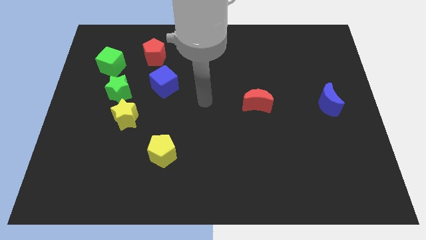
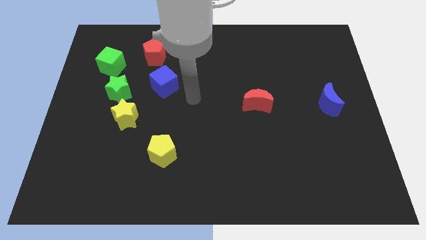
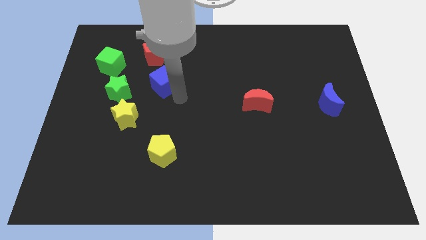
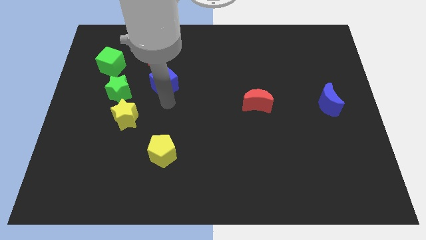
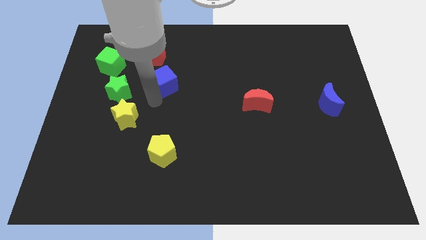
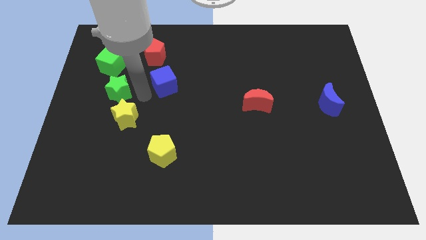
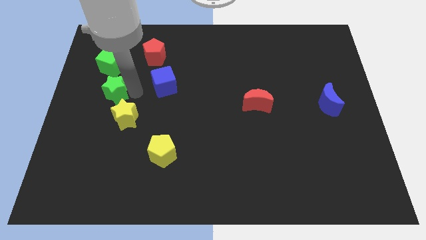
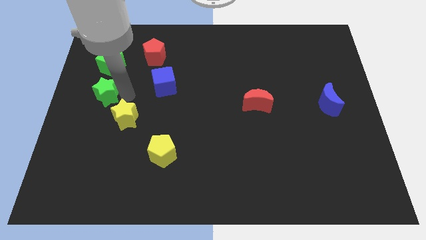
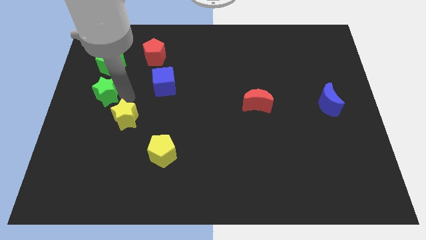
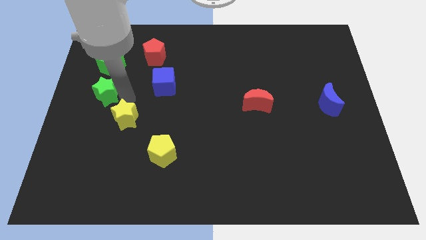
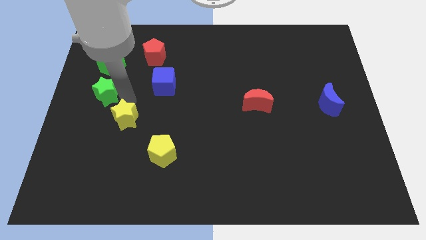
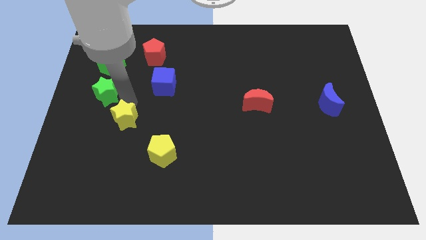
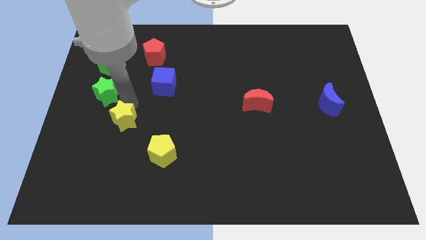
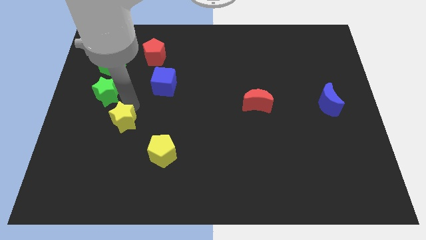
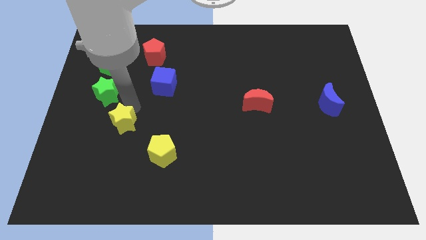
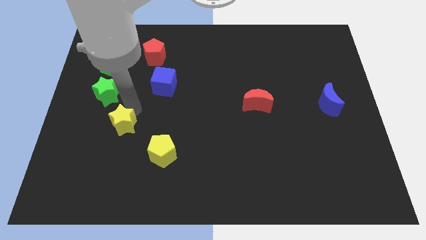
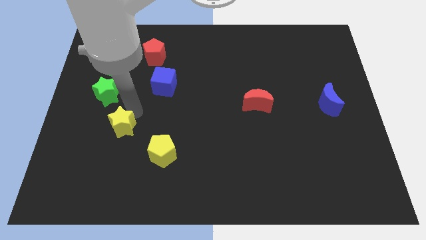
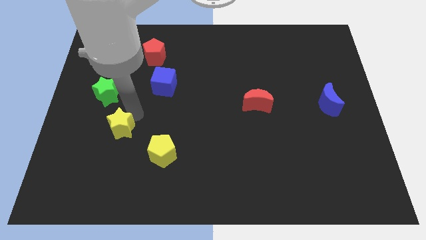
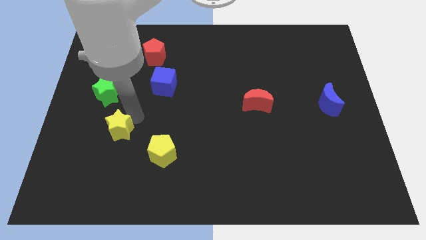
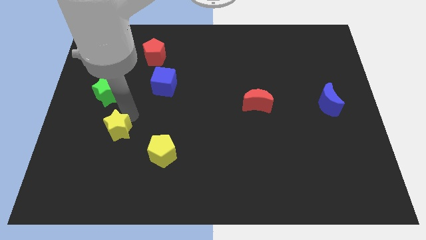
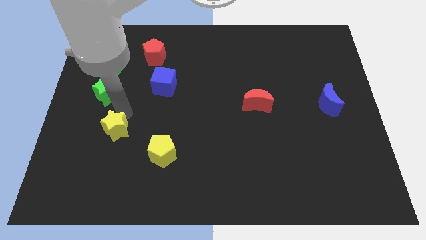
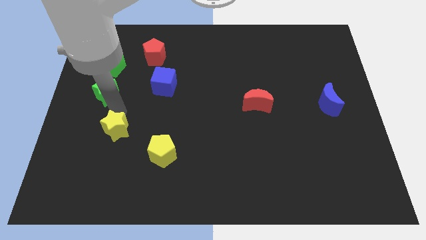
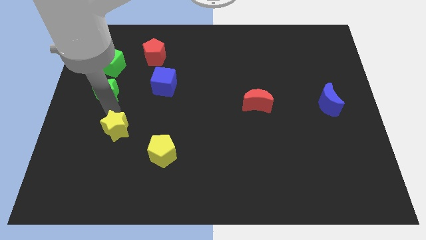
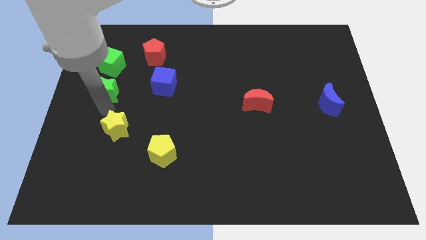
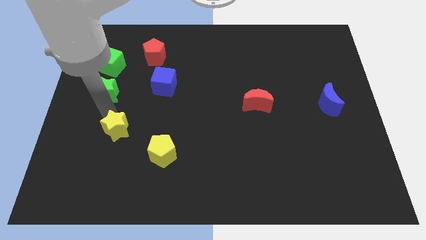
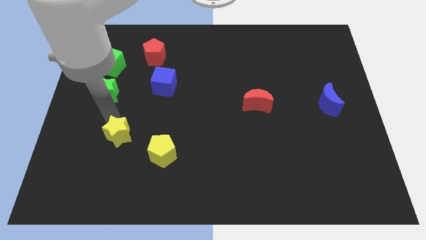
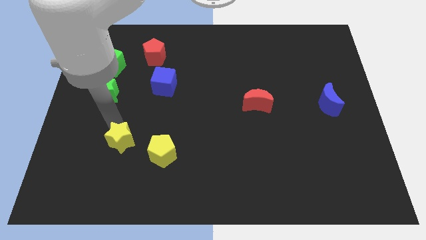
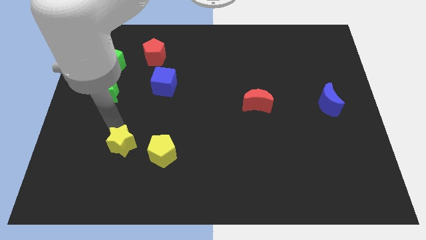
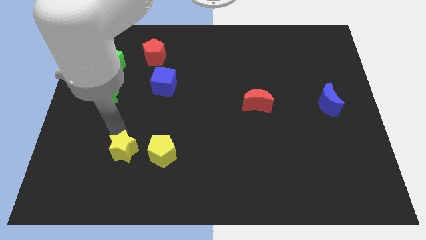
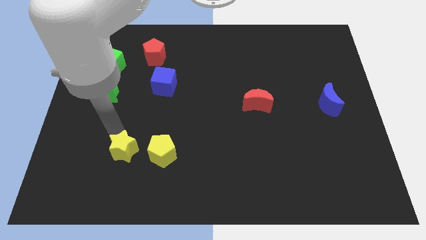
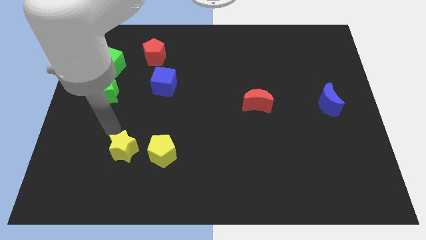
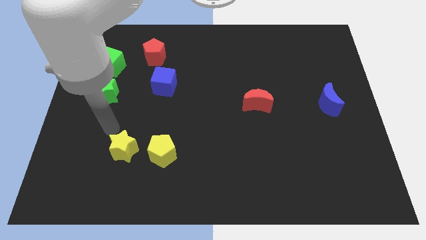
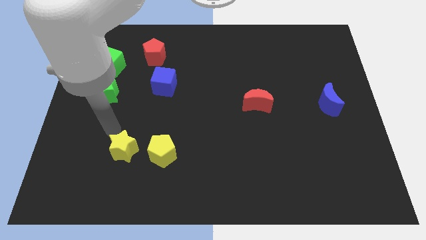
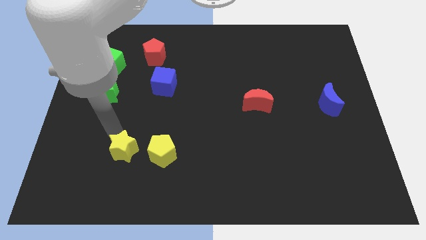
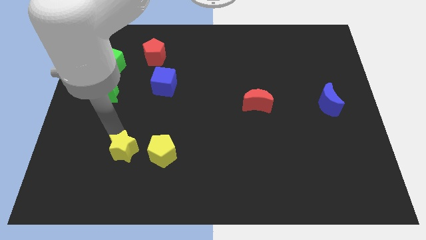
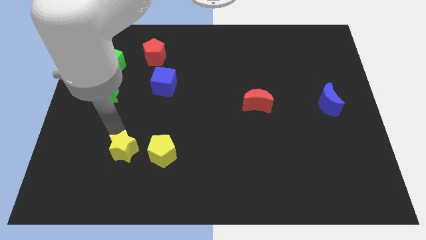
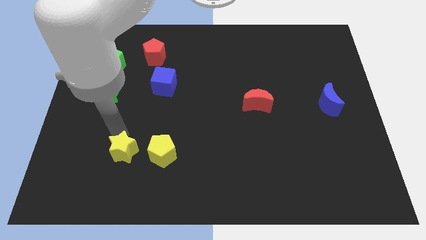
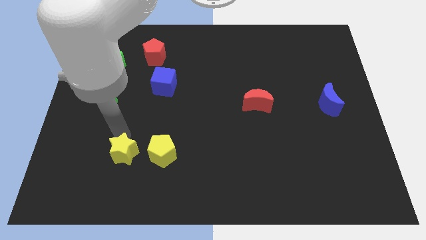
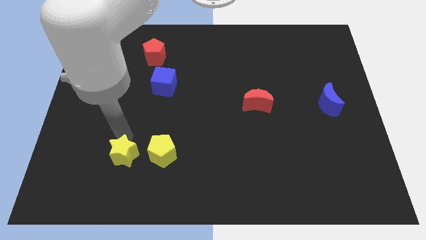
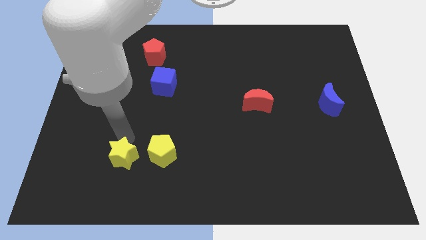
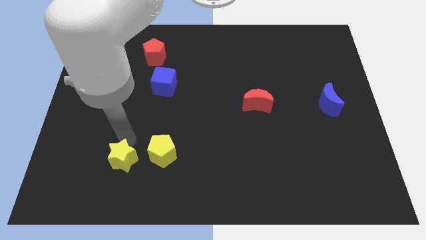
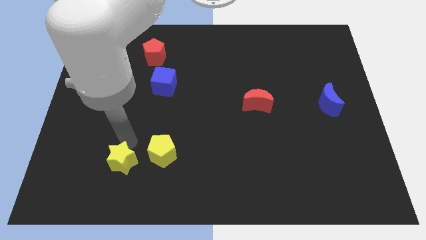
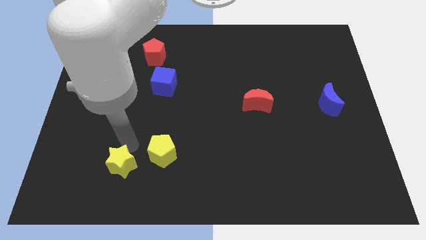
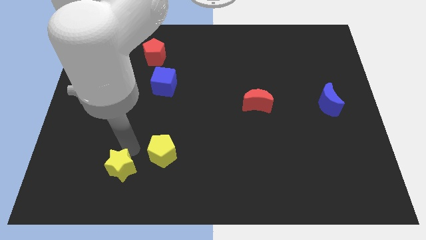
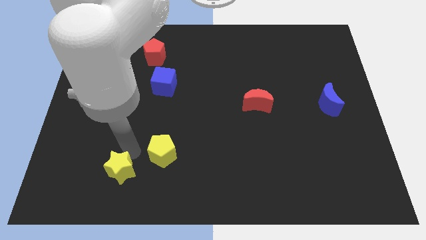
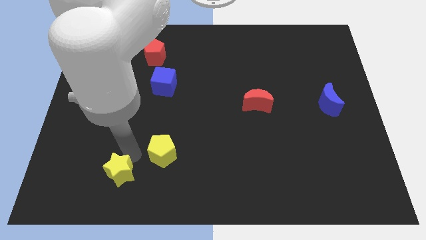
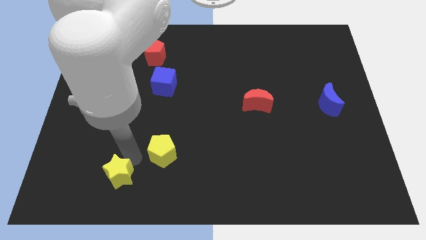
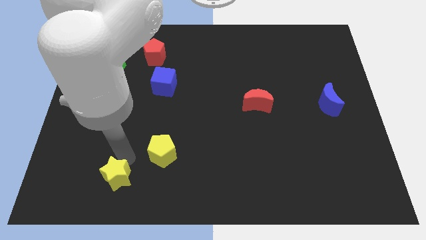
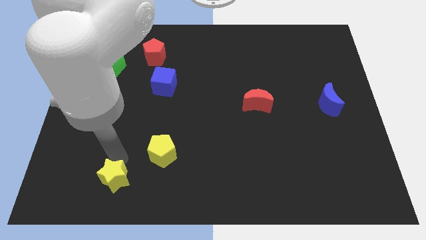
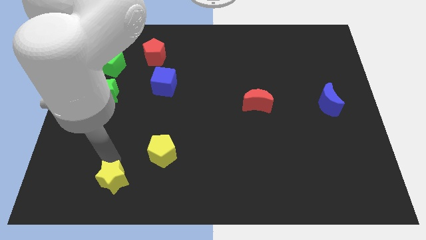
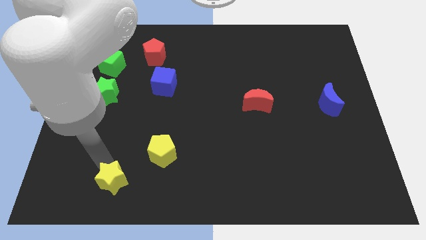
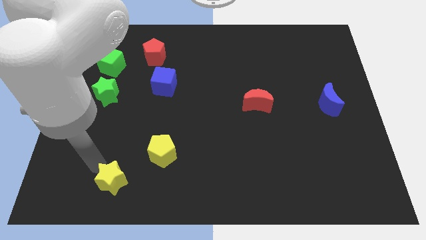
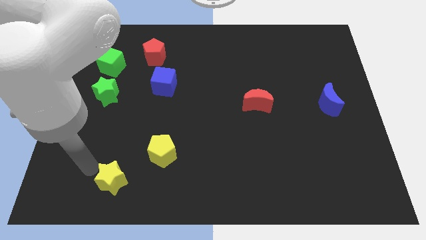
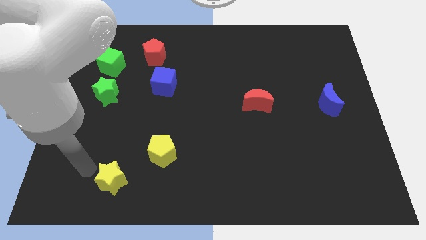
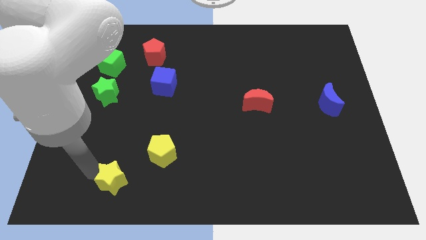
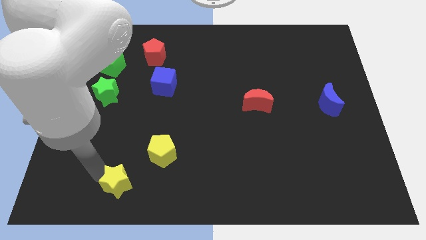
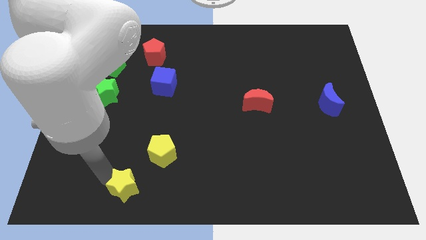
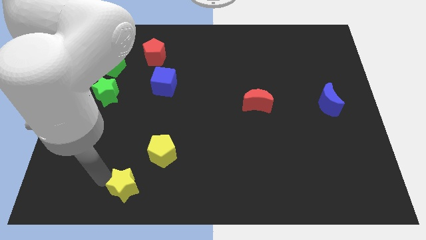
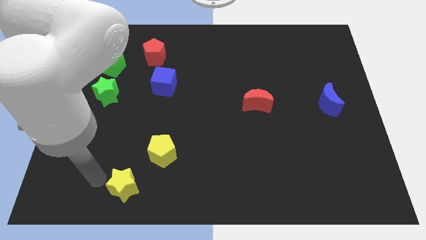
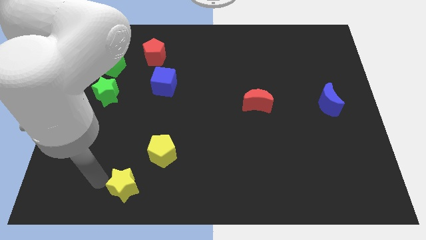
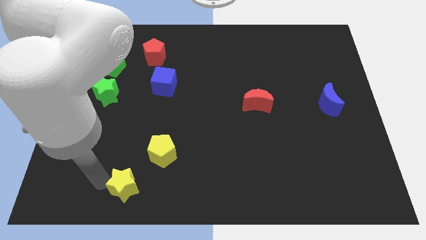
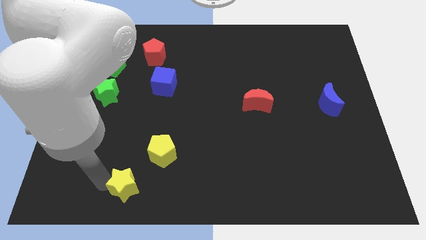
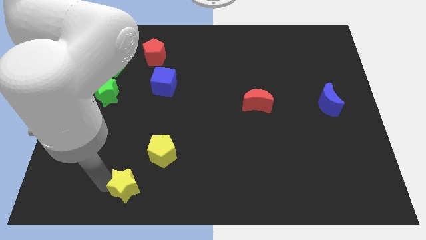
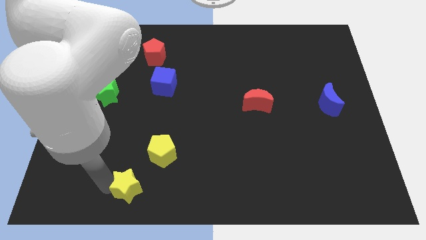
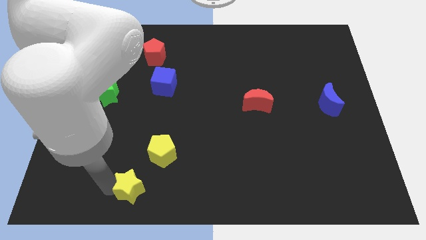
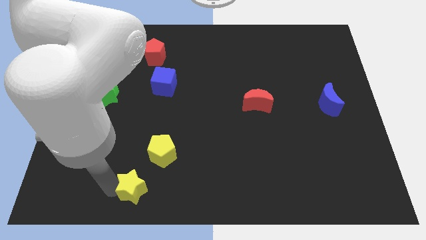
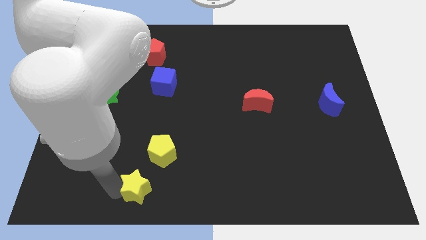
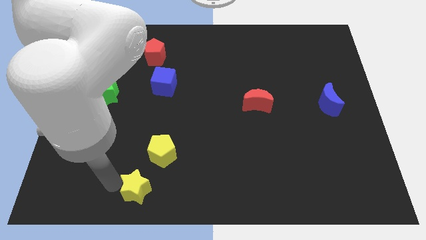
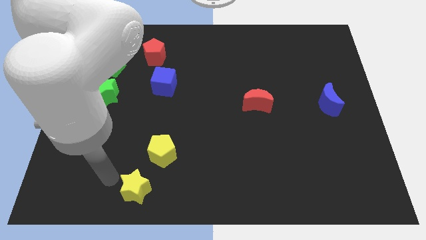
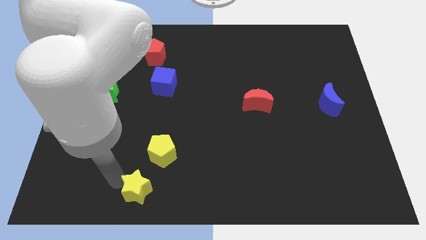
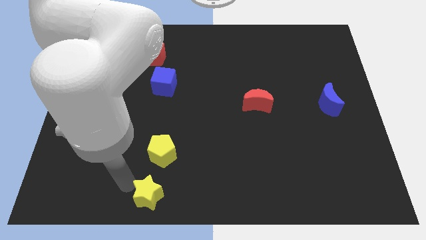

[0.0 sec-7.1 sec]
push the yellow star to the bottom side
